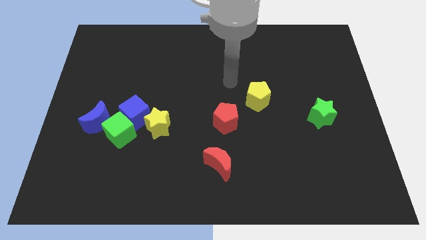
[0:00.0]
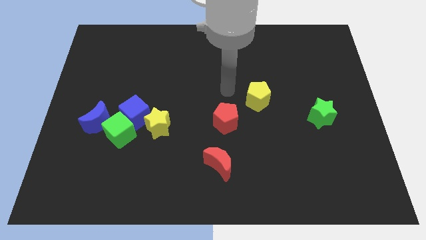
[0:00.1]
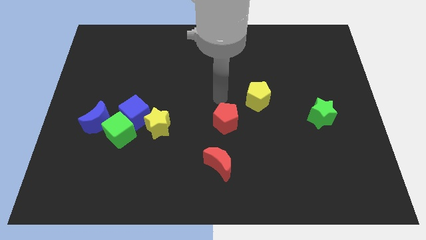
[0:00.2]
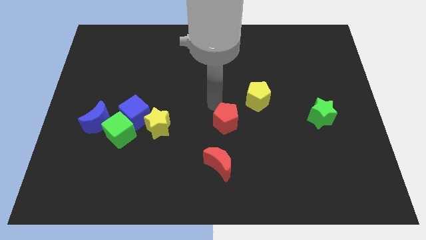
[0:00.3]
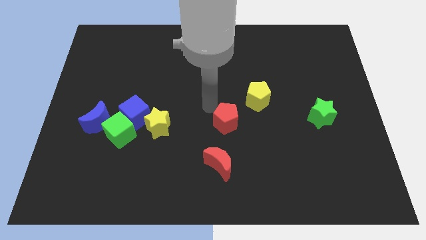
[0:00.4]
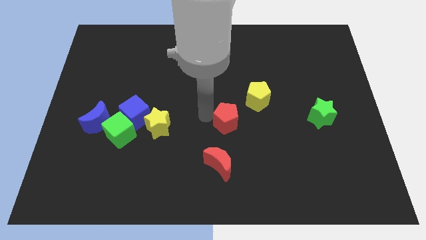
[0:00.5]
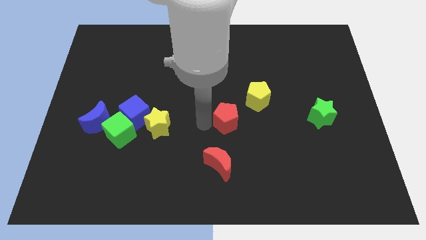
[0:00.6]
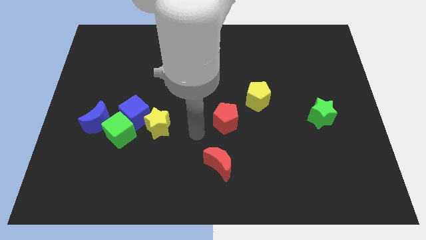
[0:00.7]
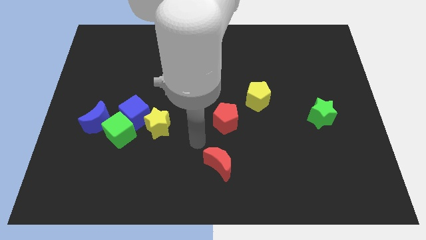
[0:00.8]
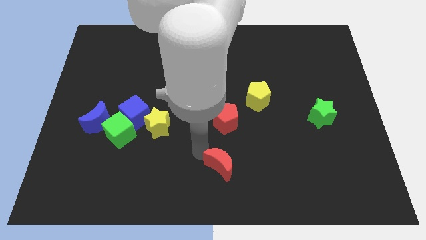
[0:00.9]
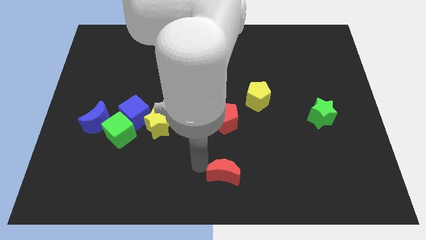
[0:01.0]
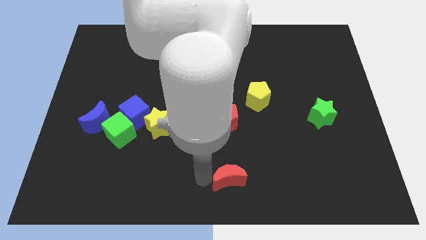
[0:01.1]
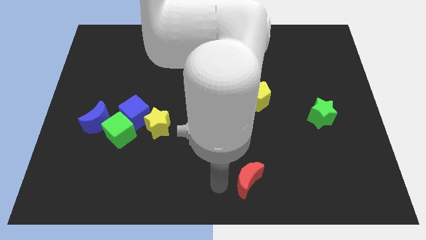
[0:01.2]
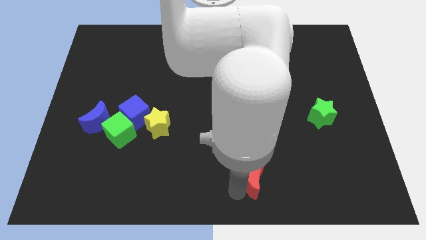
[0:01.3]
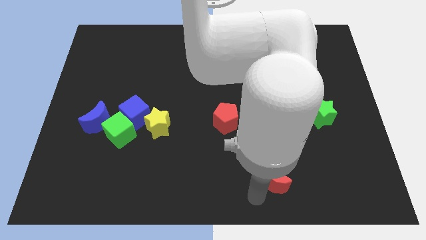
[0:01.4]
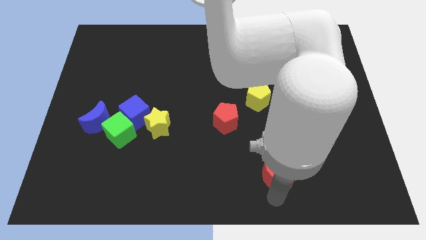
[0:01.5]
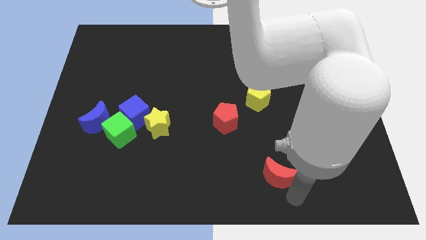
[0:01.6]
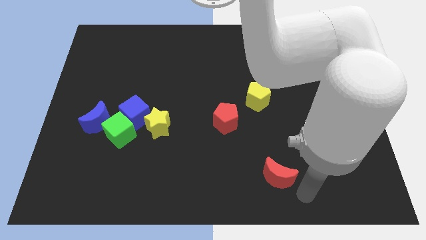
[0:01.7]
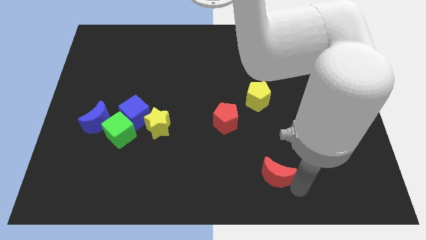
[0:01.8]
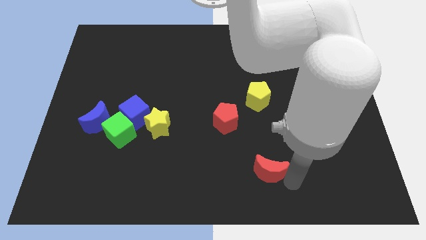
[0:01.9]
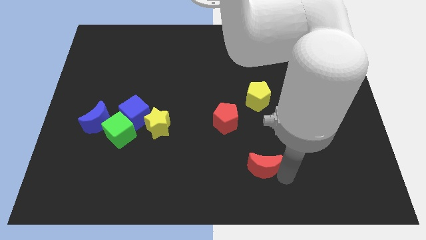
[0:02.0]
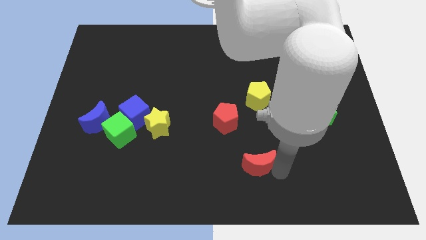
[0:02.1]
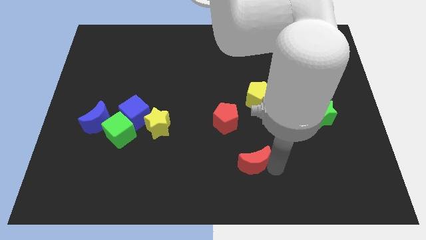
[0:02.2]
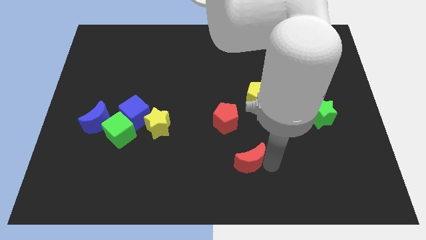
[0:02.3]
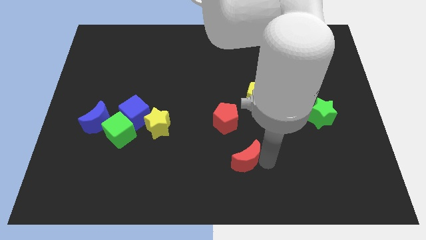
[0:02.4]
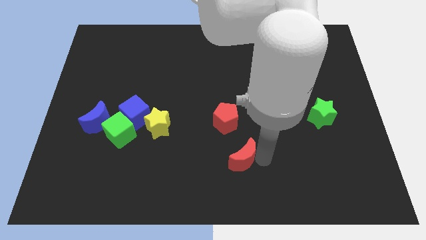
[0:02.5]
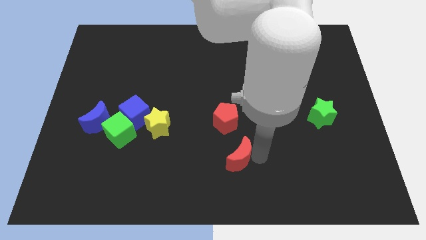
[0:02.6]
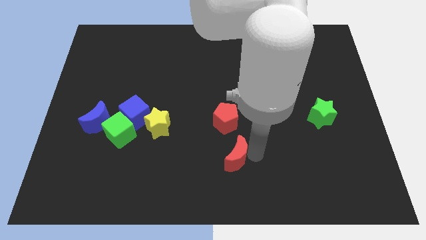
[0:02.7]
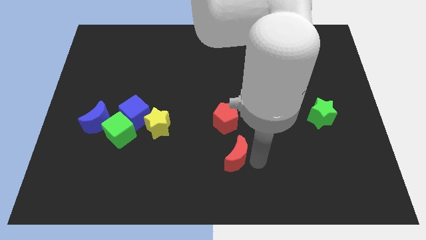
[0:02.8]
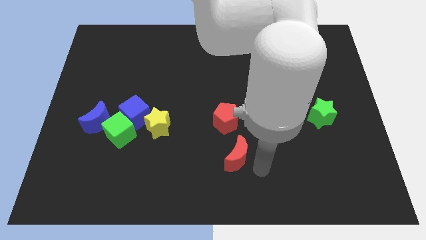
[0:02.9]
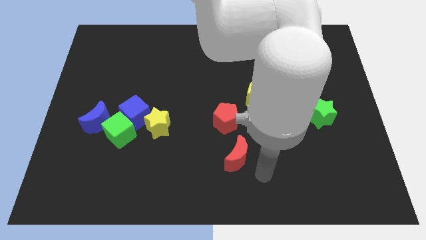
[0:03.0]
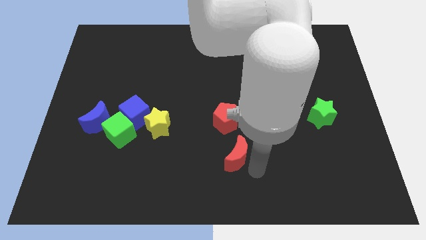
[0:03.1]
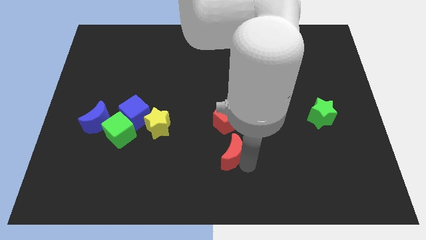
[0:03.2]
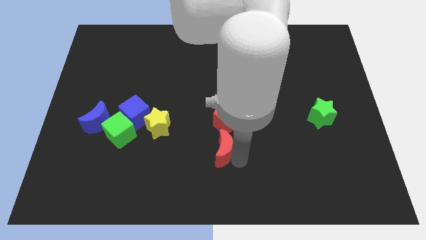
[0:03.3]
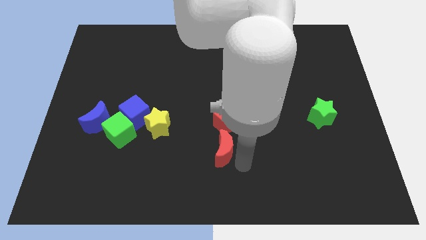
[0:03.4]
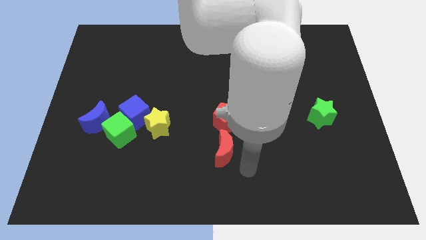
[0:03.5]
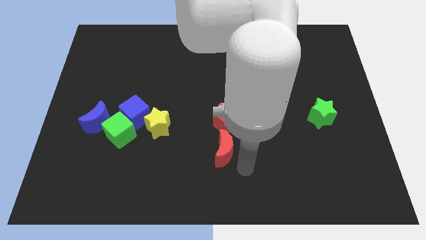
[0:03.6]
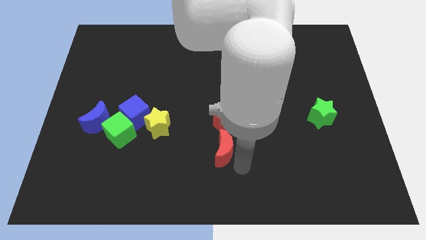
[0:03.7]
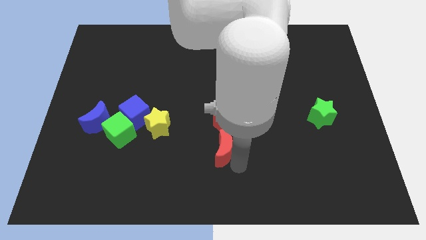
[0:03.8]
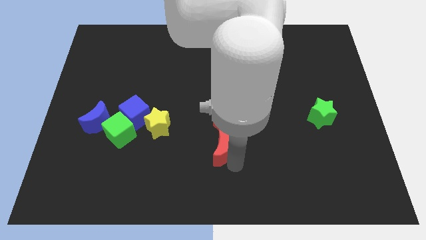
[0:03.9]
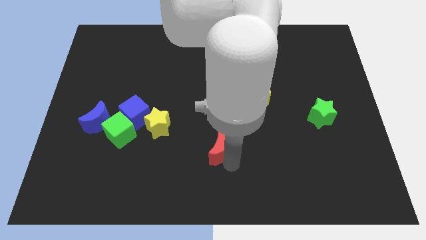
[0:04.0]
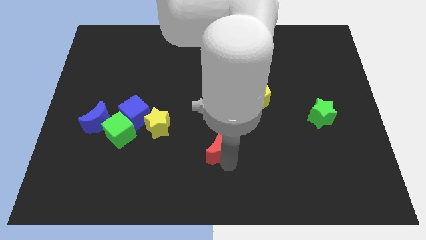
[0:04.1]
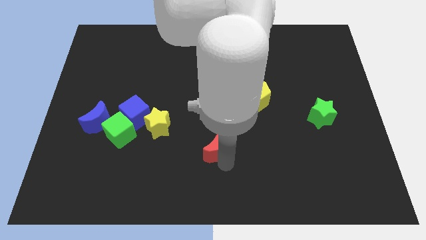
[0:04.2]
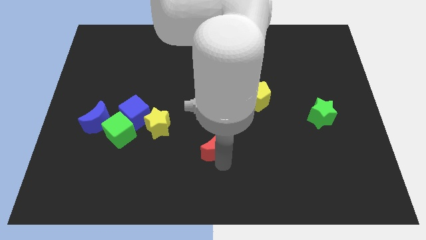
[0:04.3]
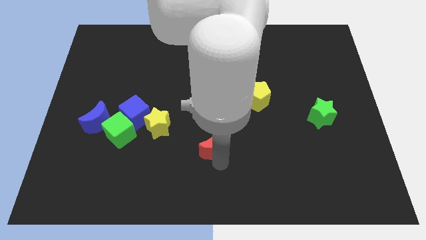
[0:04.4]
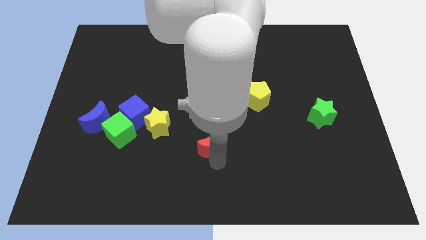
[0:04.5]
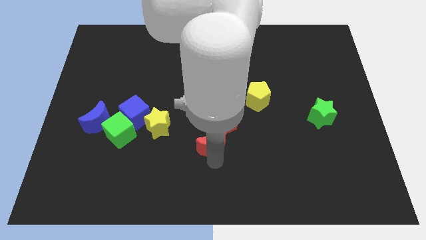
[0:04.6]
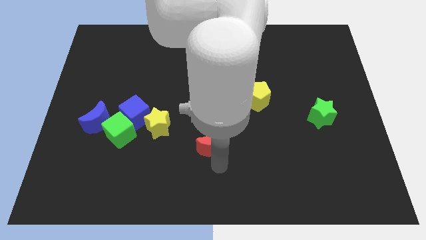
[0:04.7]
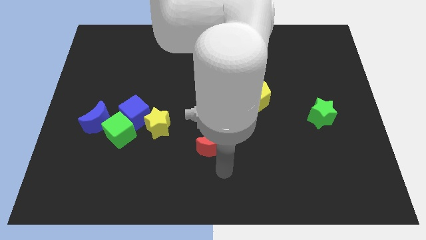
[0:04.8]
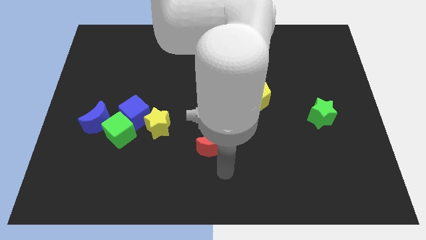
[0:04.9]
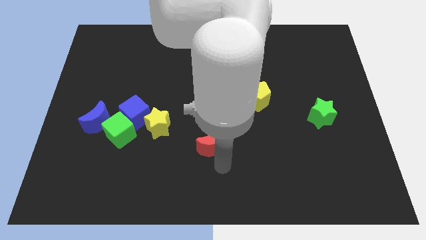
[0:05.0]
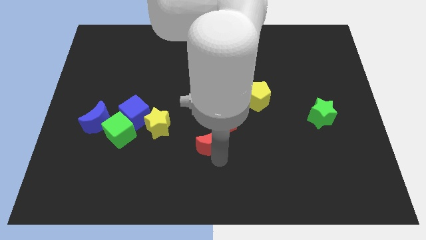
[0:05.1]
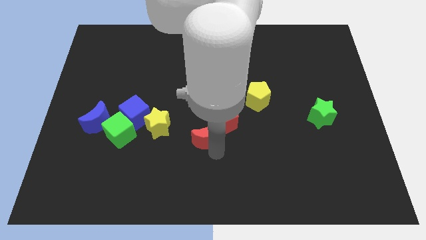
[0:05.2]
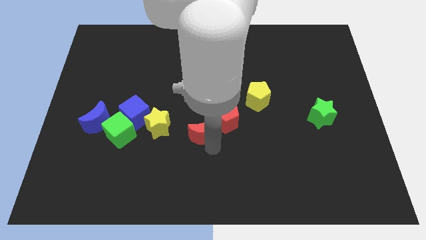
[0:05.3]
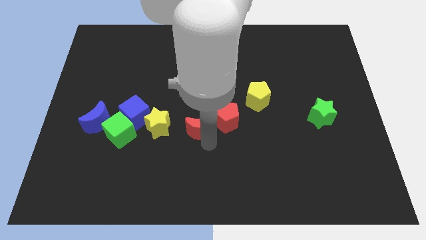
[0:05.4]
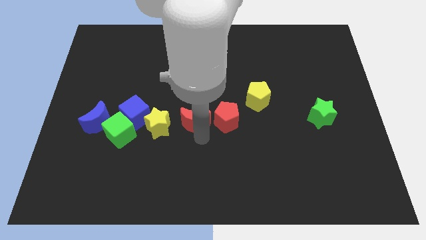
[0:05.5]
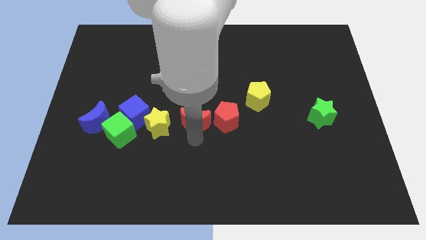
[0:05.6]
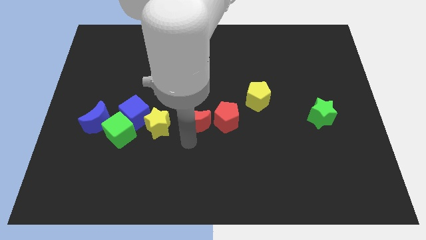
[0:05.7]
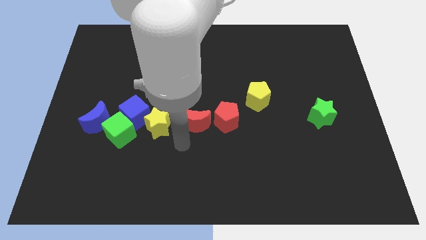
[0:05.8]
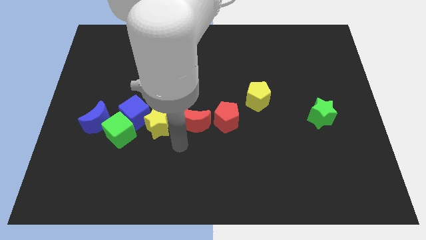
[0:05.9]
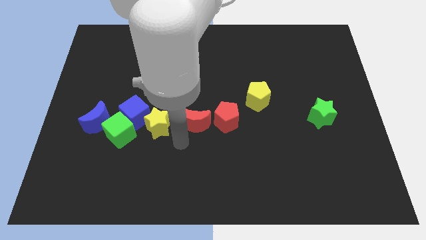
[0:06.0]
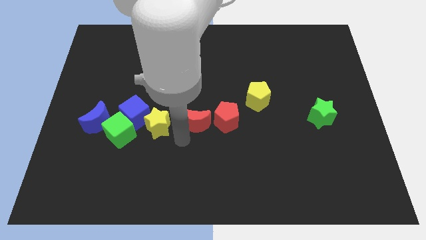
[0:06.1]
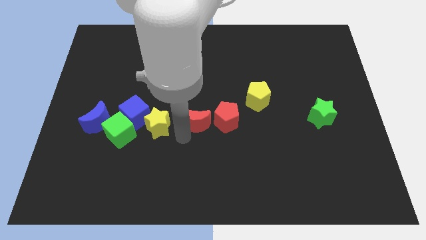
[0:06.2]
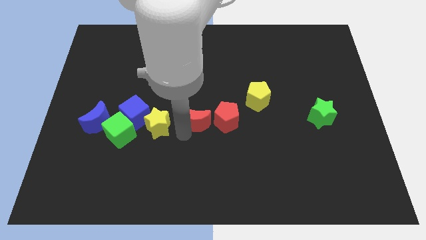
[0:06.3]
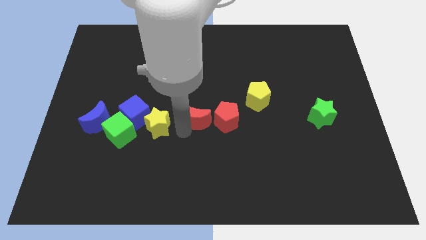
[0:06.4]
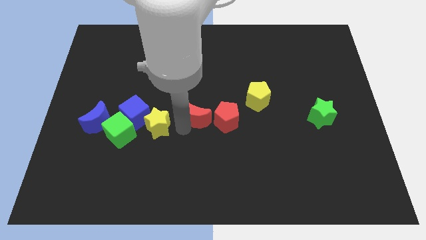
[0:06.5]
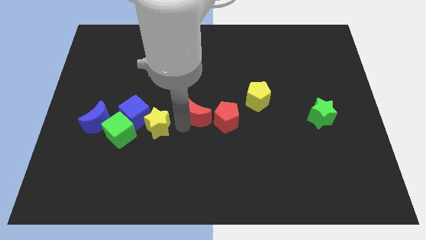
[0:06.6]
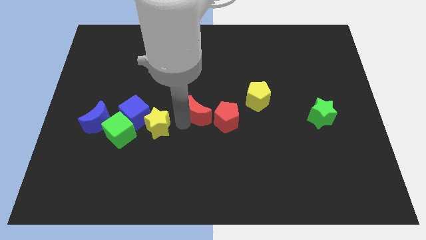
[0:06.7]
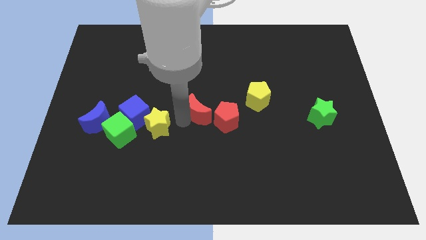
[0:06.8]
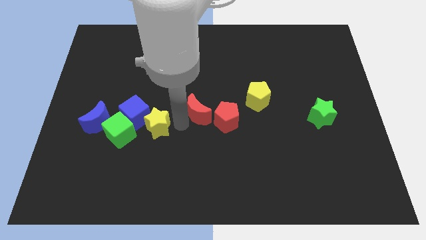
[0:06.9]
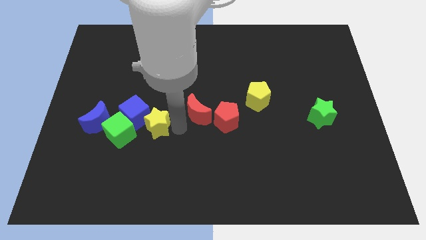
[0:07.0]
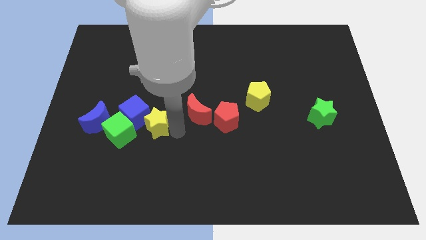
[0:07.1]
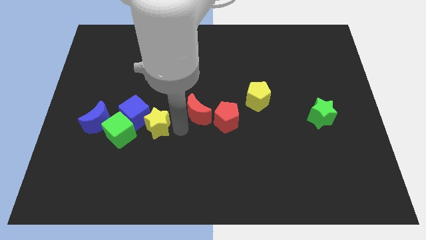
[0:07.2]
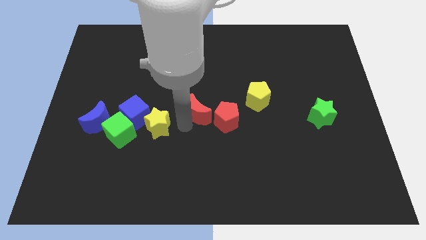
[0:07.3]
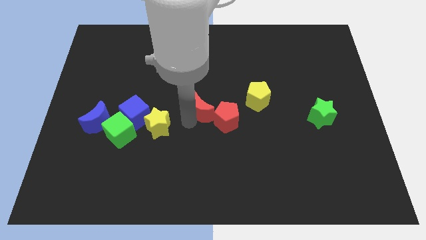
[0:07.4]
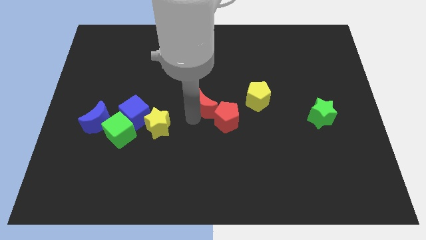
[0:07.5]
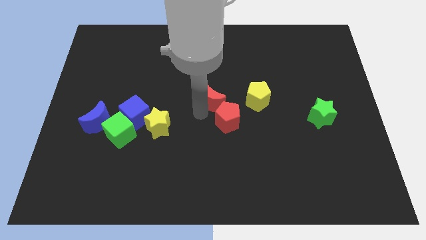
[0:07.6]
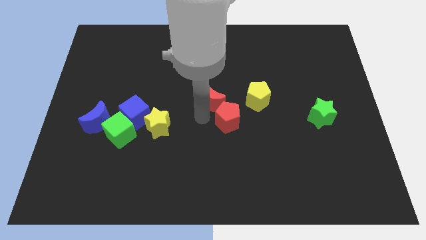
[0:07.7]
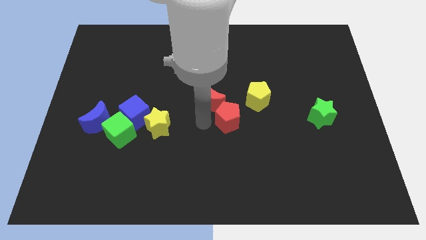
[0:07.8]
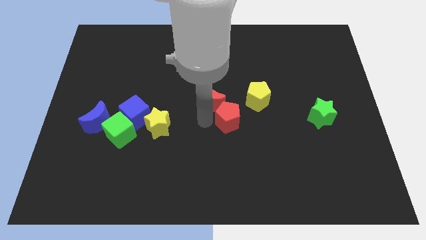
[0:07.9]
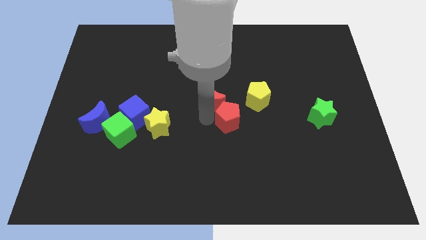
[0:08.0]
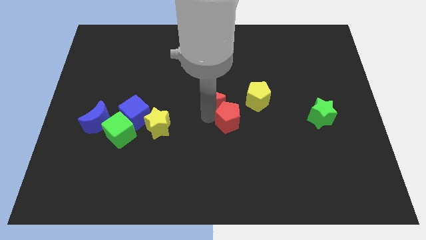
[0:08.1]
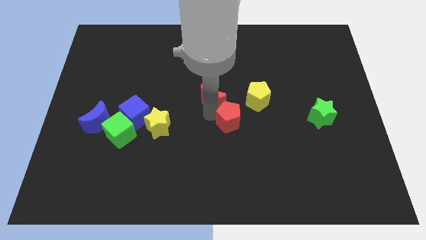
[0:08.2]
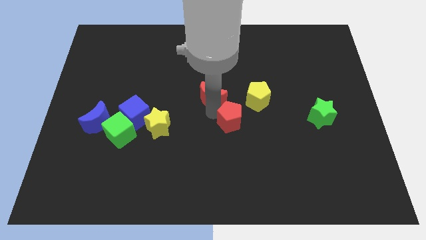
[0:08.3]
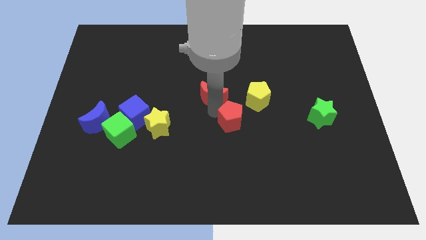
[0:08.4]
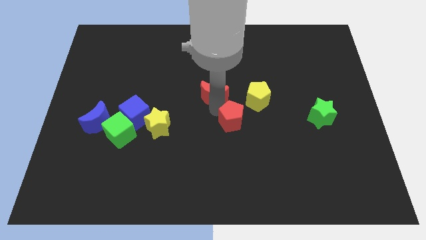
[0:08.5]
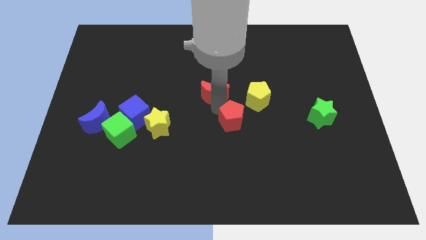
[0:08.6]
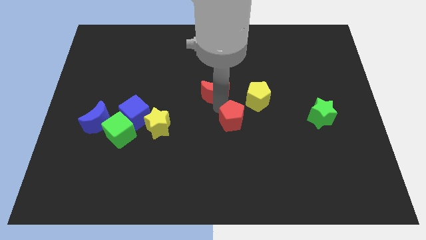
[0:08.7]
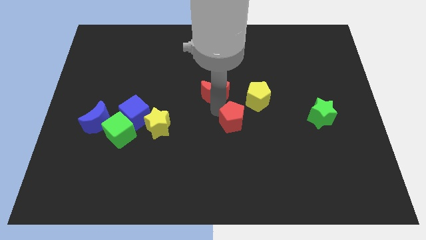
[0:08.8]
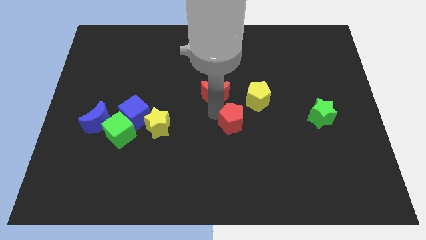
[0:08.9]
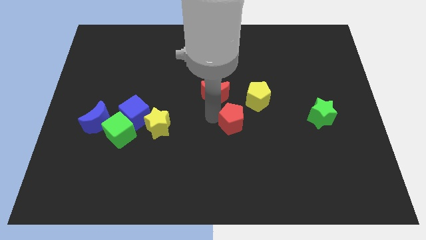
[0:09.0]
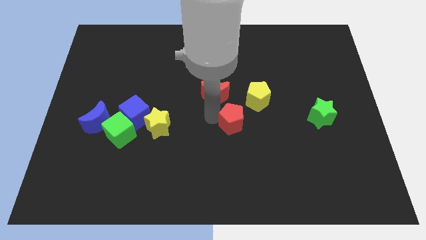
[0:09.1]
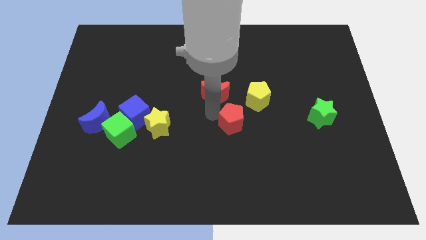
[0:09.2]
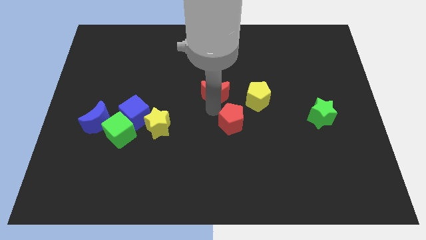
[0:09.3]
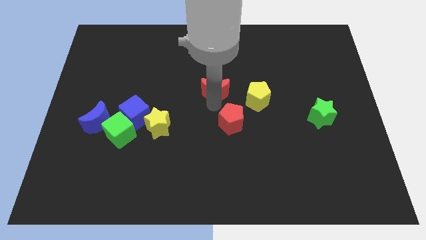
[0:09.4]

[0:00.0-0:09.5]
slide the red moon up
